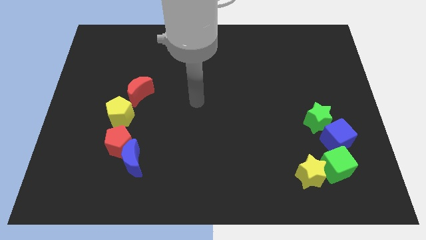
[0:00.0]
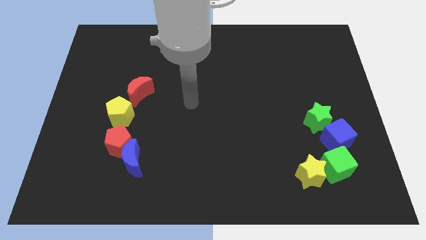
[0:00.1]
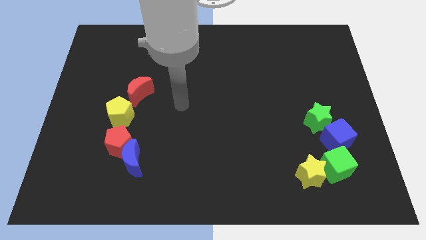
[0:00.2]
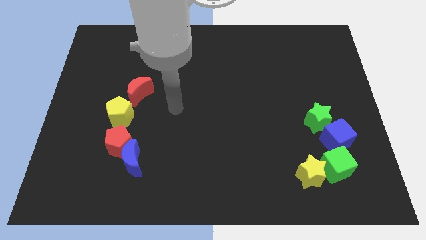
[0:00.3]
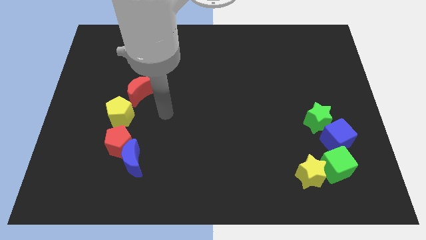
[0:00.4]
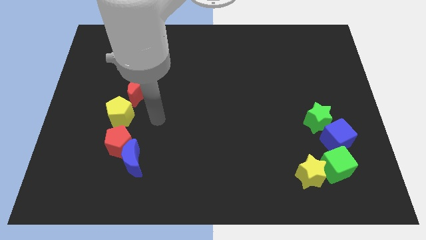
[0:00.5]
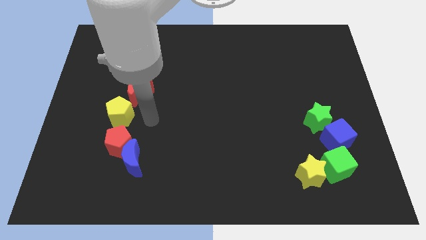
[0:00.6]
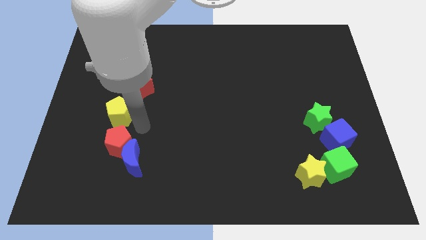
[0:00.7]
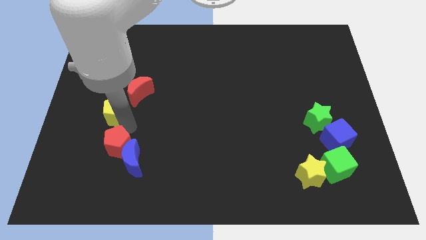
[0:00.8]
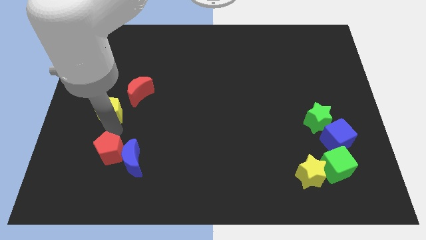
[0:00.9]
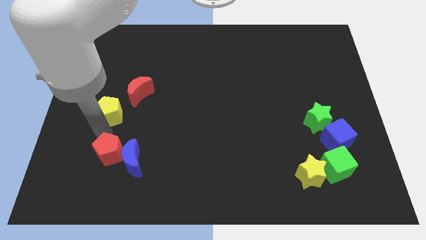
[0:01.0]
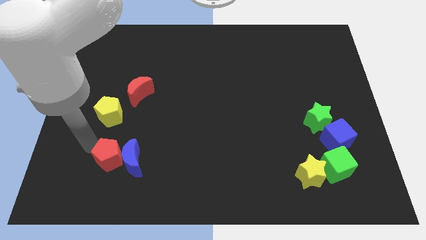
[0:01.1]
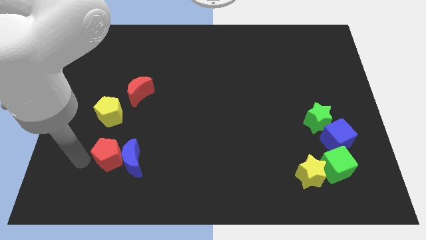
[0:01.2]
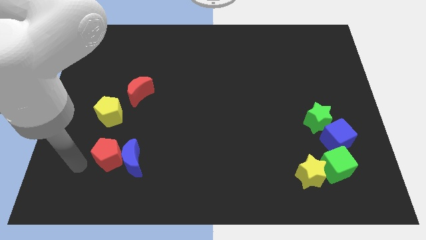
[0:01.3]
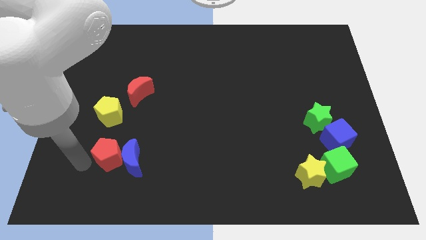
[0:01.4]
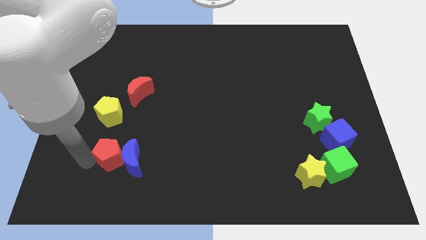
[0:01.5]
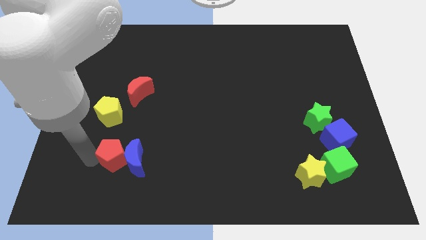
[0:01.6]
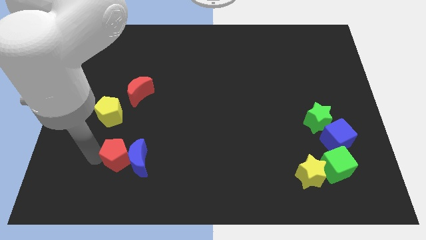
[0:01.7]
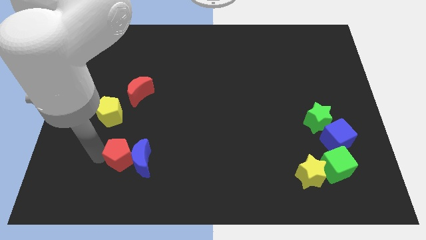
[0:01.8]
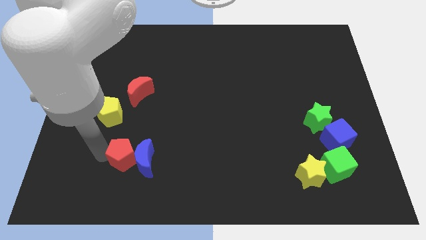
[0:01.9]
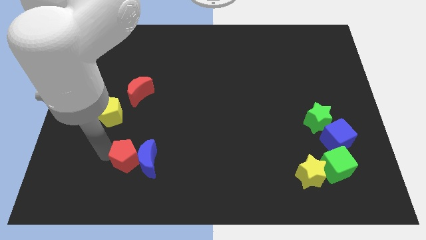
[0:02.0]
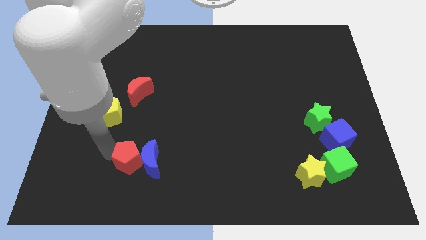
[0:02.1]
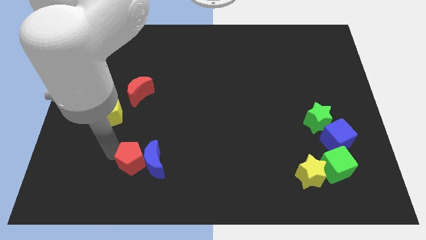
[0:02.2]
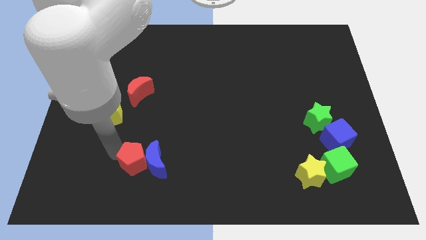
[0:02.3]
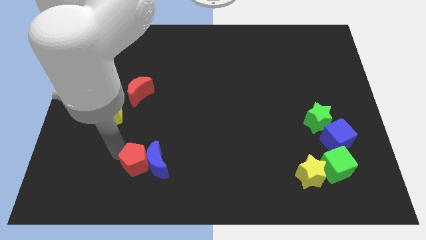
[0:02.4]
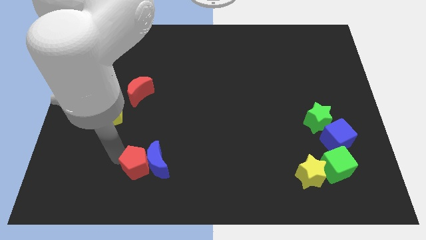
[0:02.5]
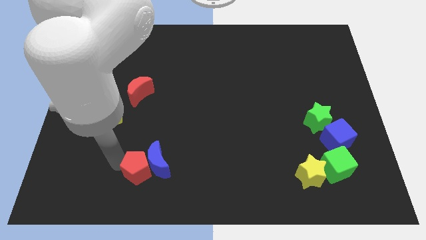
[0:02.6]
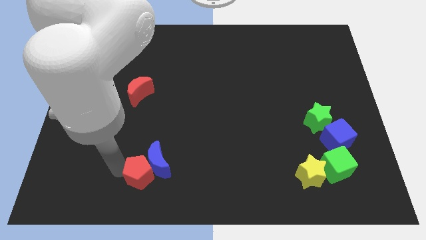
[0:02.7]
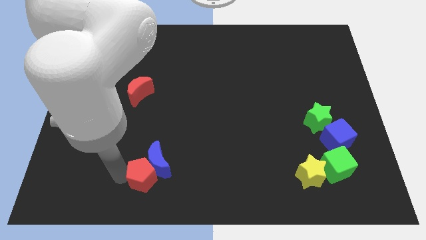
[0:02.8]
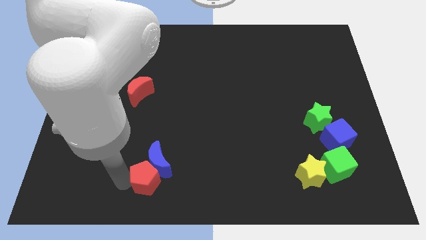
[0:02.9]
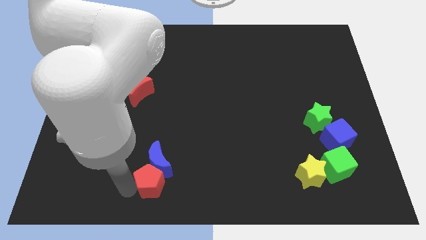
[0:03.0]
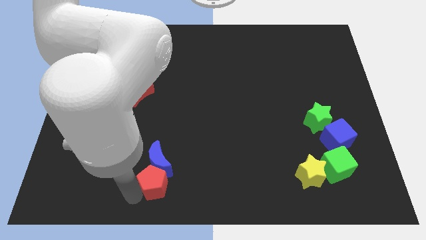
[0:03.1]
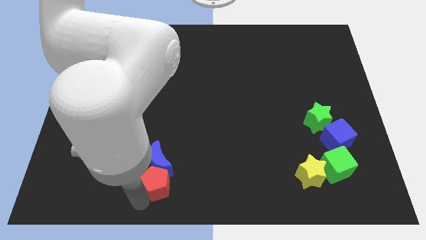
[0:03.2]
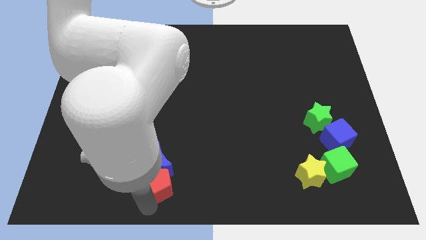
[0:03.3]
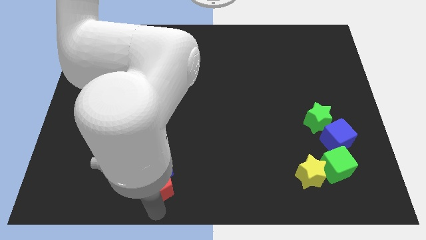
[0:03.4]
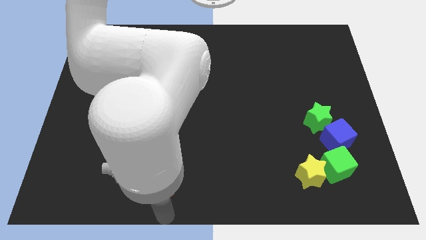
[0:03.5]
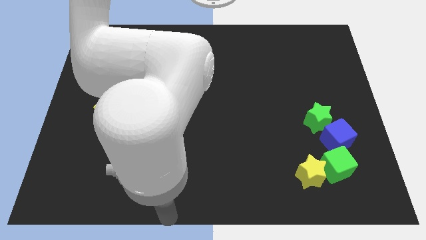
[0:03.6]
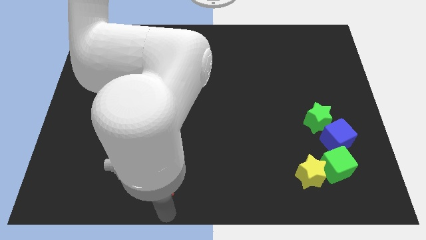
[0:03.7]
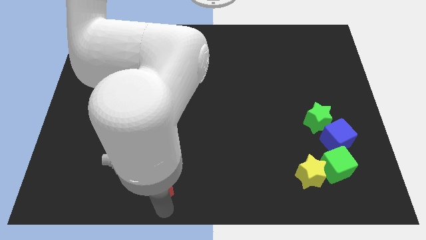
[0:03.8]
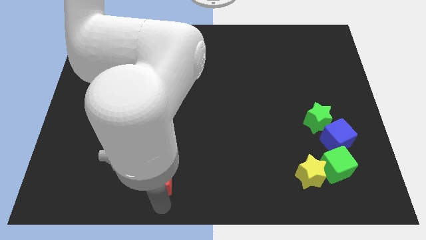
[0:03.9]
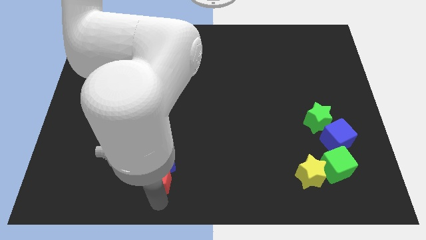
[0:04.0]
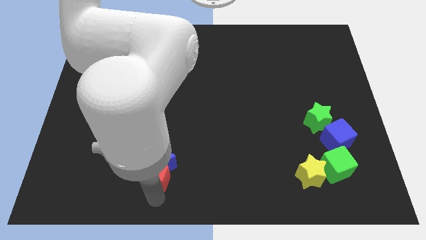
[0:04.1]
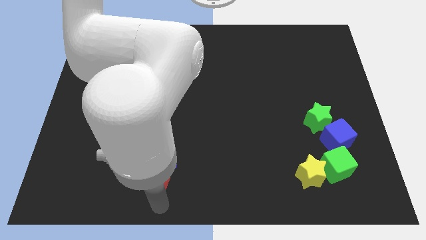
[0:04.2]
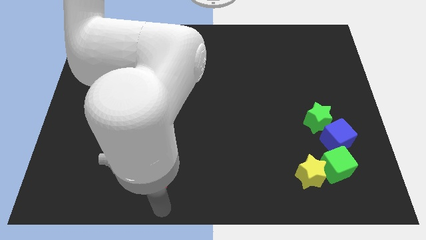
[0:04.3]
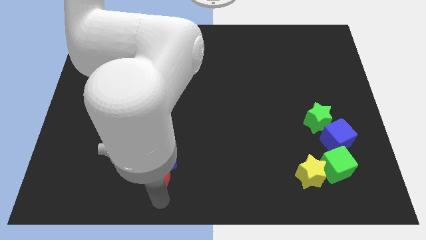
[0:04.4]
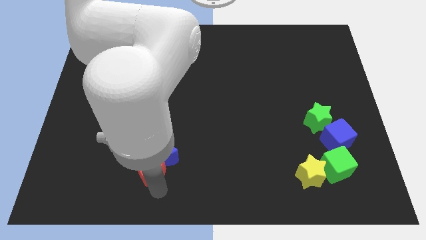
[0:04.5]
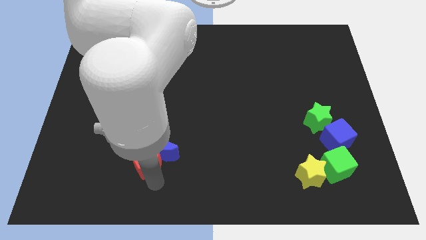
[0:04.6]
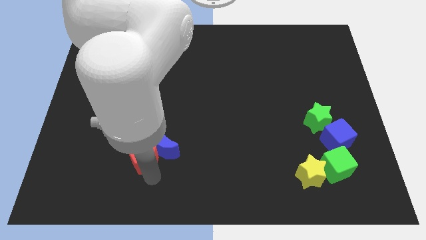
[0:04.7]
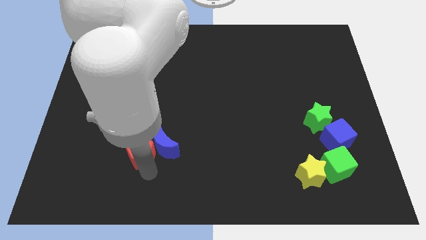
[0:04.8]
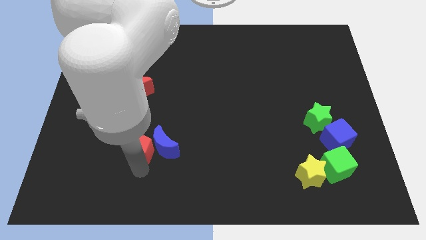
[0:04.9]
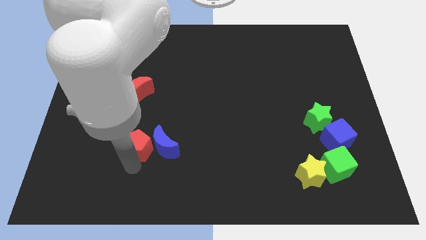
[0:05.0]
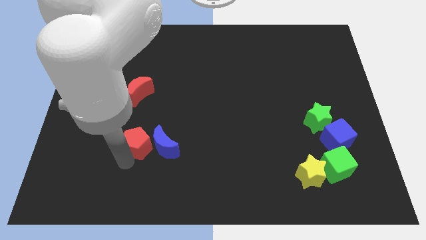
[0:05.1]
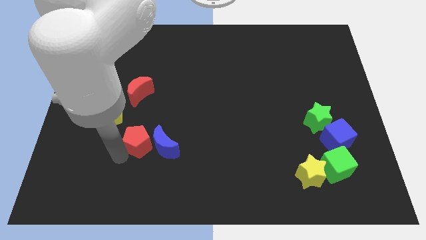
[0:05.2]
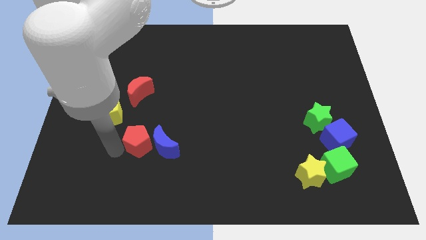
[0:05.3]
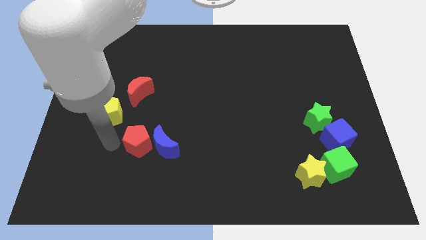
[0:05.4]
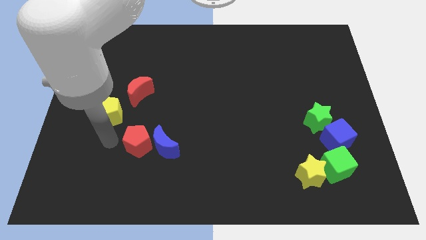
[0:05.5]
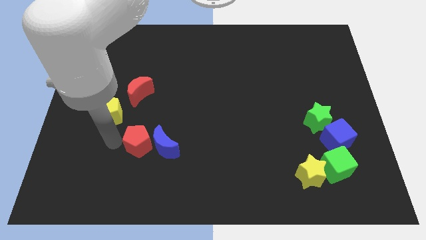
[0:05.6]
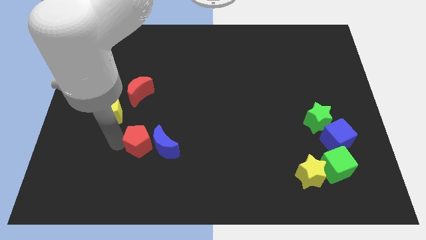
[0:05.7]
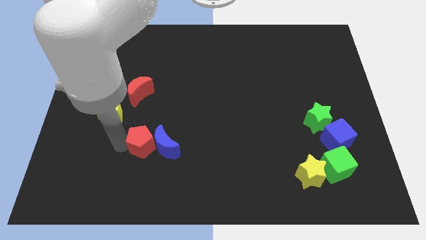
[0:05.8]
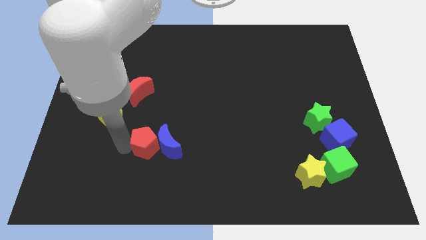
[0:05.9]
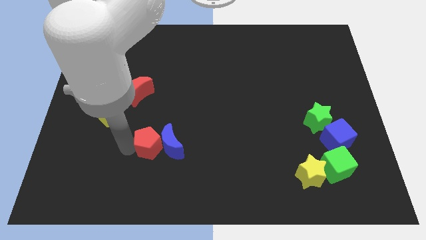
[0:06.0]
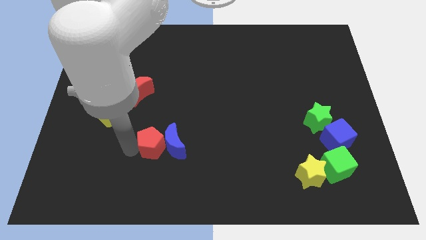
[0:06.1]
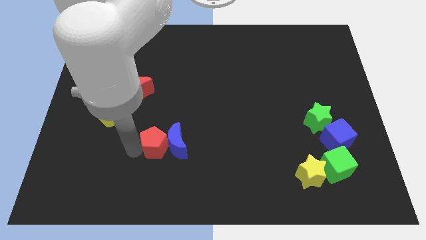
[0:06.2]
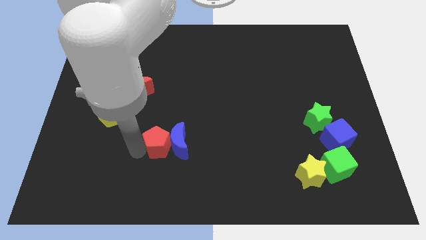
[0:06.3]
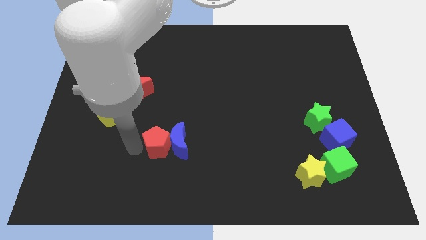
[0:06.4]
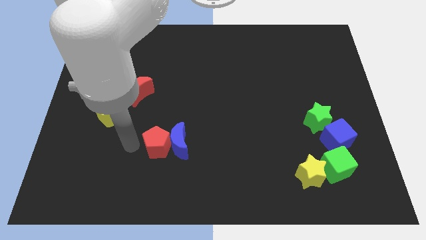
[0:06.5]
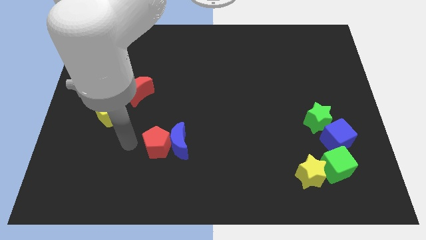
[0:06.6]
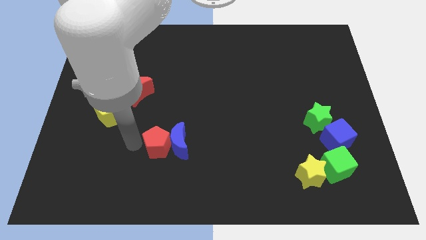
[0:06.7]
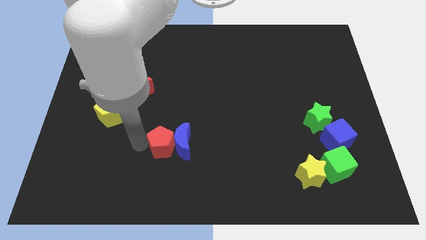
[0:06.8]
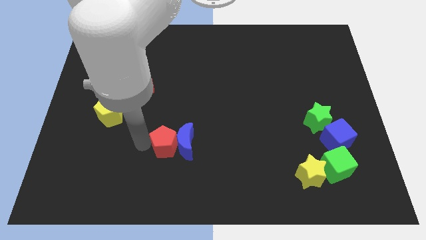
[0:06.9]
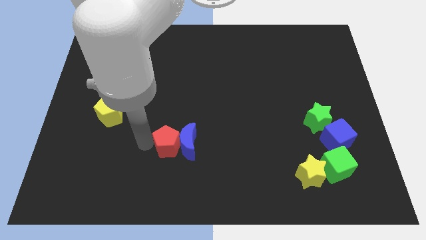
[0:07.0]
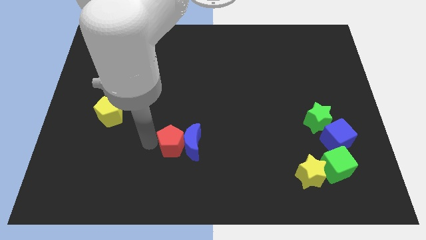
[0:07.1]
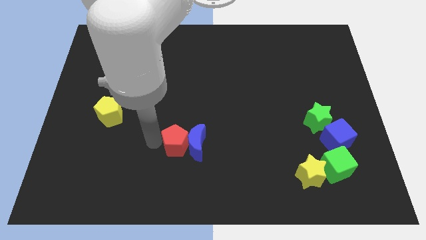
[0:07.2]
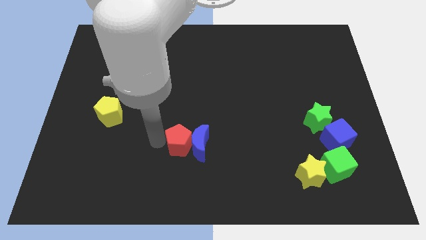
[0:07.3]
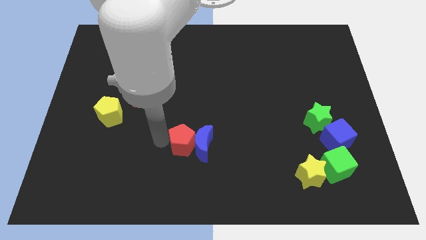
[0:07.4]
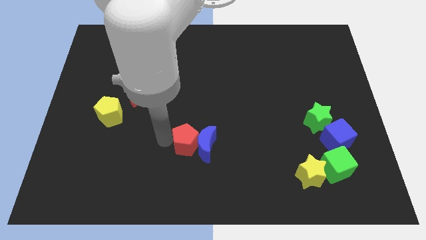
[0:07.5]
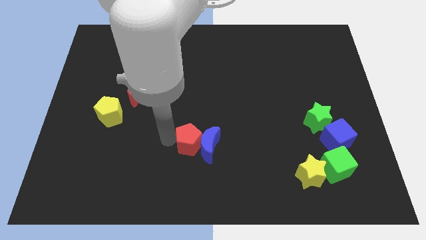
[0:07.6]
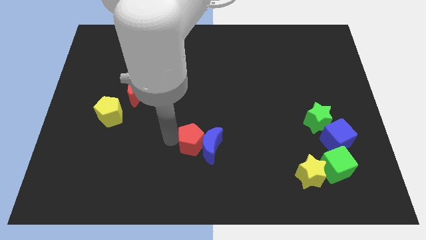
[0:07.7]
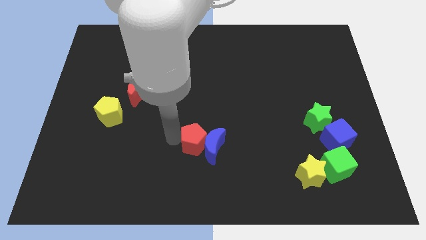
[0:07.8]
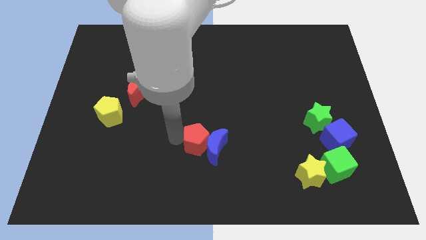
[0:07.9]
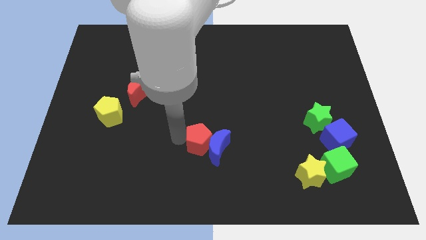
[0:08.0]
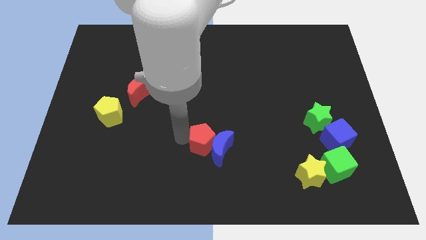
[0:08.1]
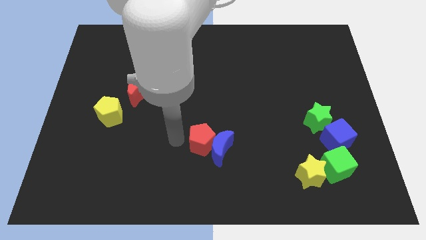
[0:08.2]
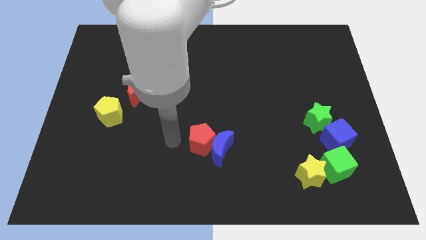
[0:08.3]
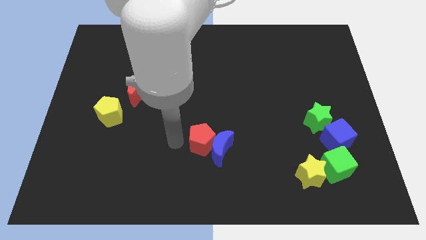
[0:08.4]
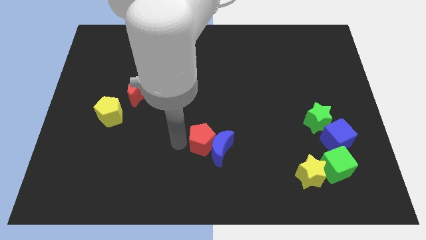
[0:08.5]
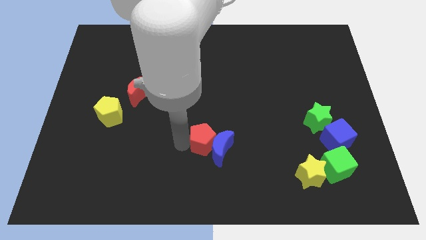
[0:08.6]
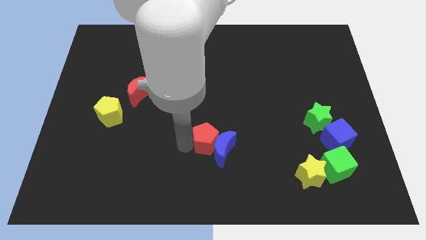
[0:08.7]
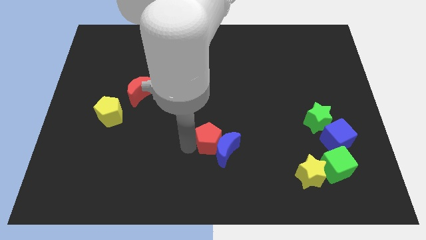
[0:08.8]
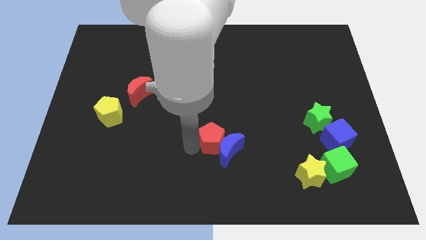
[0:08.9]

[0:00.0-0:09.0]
push the red pentagon right
